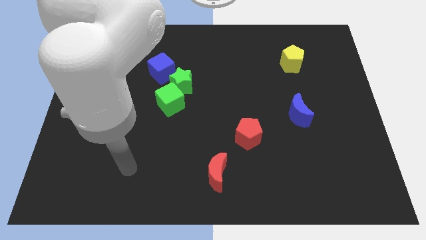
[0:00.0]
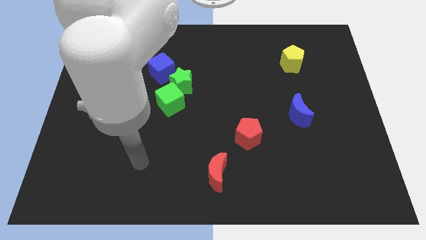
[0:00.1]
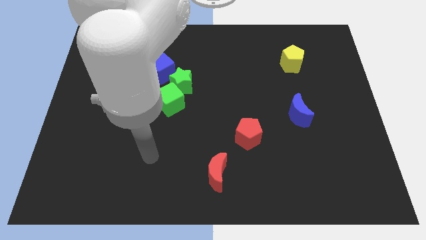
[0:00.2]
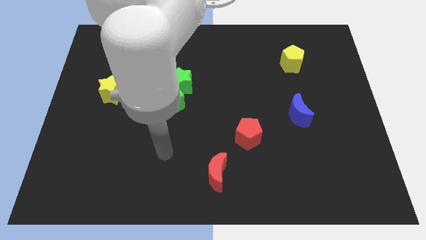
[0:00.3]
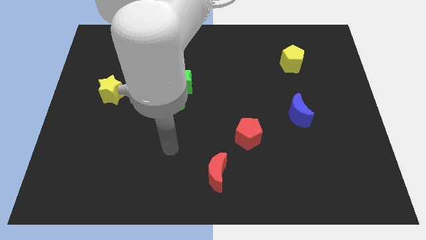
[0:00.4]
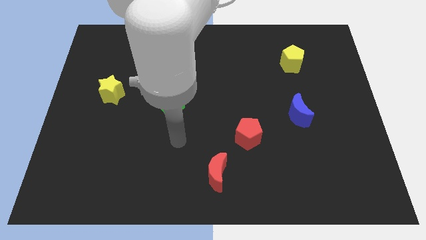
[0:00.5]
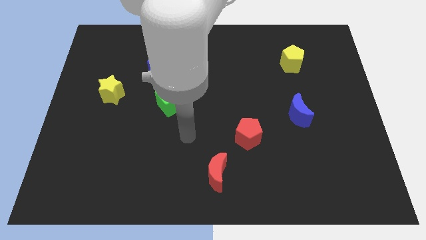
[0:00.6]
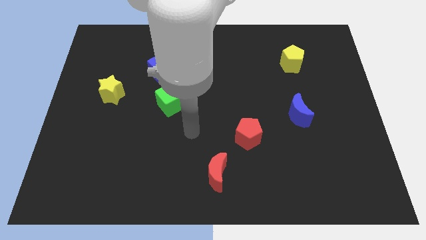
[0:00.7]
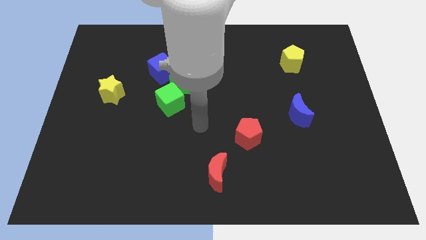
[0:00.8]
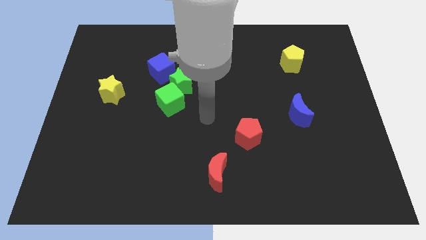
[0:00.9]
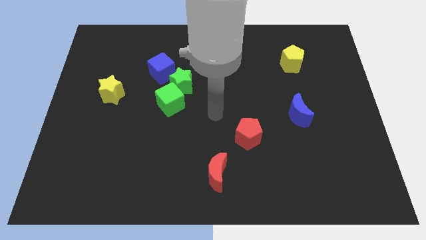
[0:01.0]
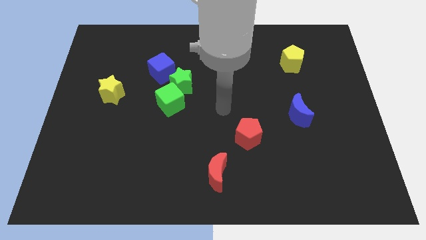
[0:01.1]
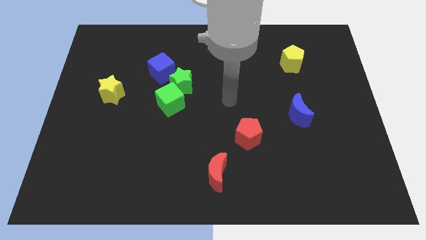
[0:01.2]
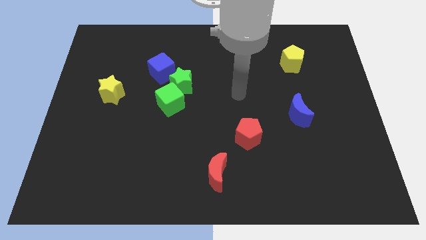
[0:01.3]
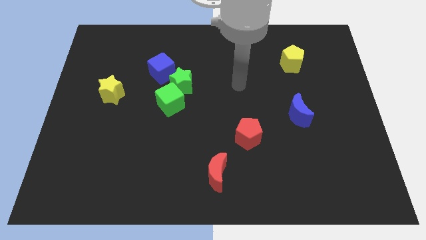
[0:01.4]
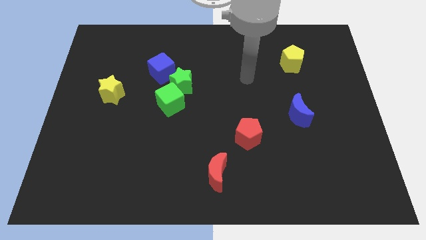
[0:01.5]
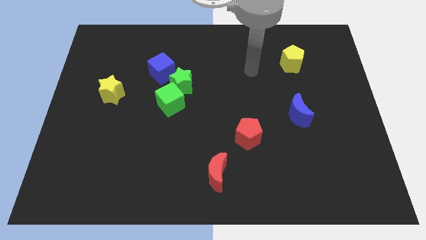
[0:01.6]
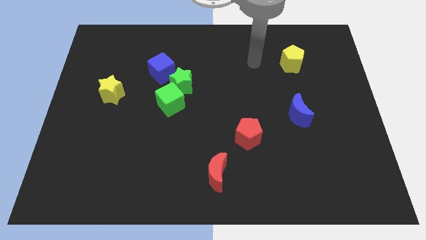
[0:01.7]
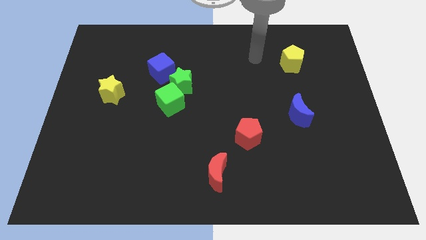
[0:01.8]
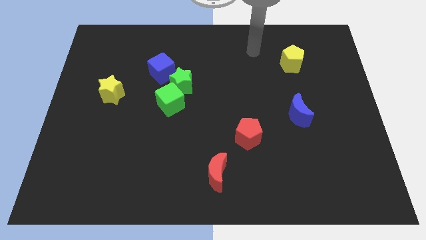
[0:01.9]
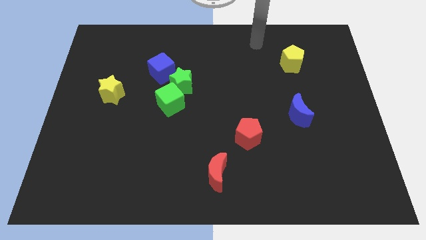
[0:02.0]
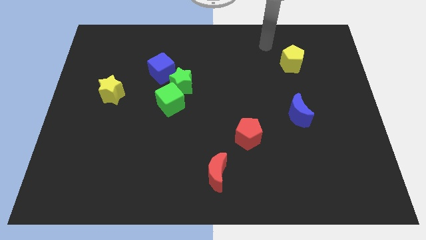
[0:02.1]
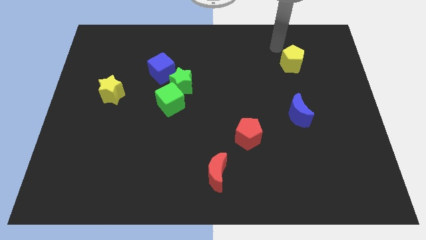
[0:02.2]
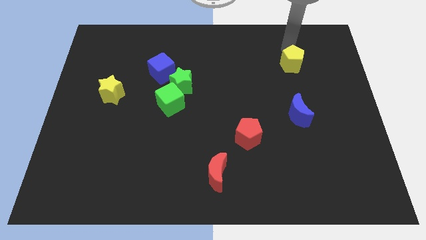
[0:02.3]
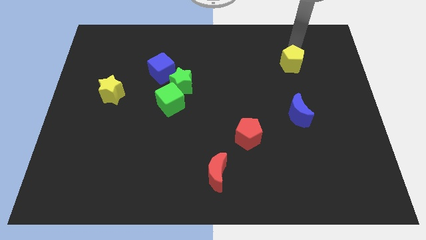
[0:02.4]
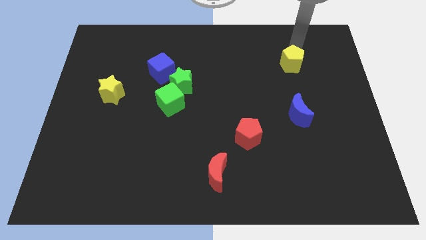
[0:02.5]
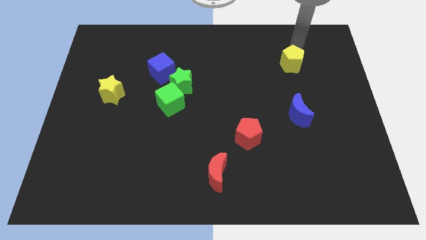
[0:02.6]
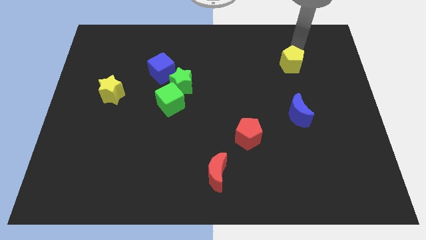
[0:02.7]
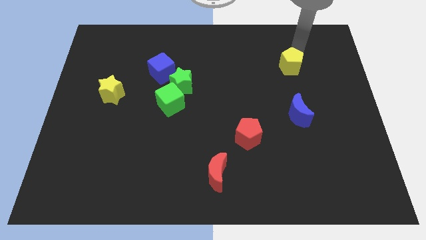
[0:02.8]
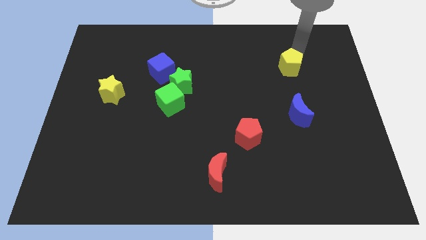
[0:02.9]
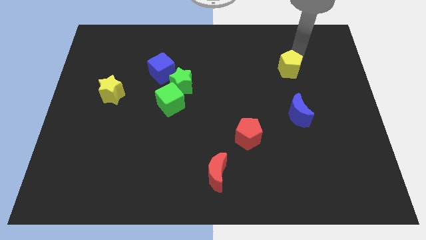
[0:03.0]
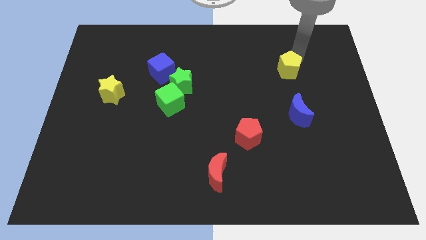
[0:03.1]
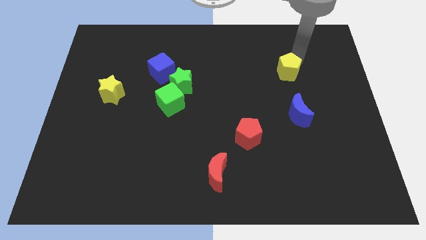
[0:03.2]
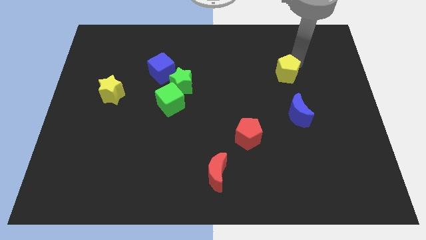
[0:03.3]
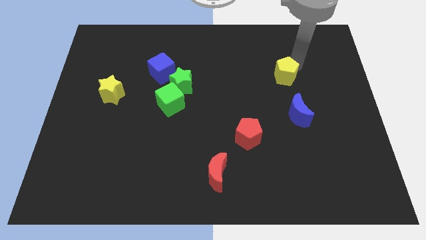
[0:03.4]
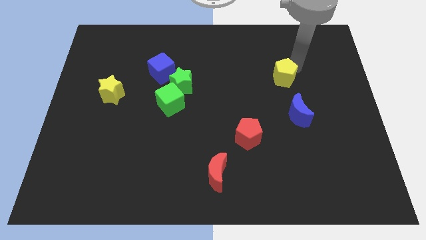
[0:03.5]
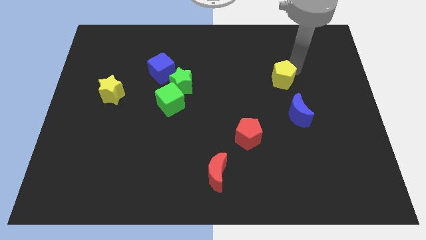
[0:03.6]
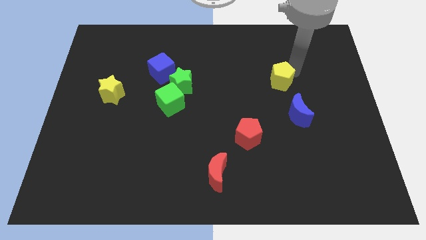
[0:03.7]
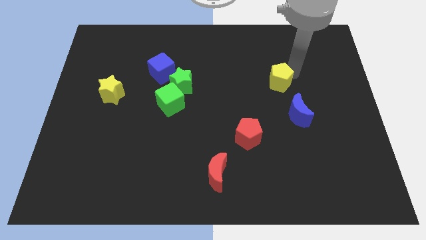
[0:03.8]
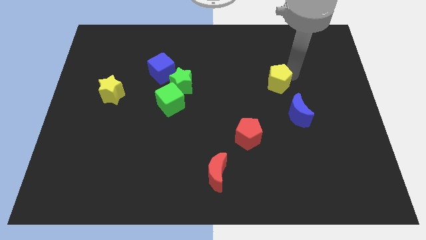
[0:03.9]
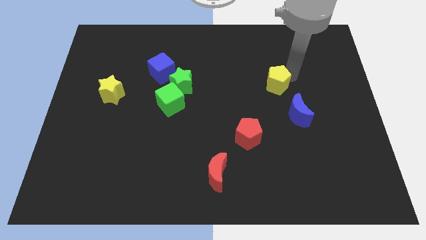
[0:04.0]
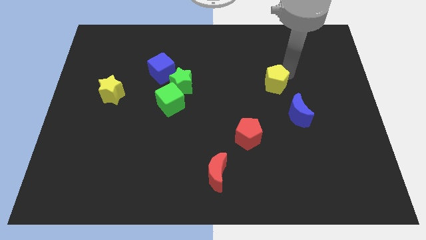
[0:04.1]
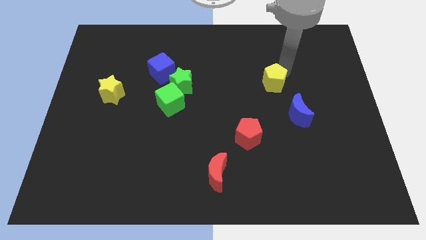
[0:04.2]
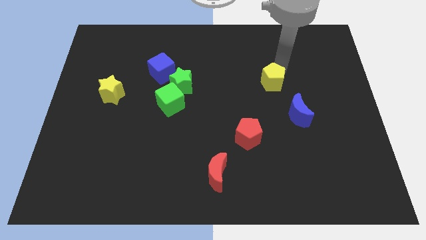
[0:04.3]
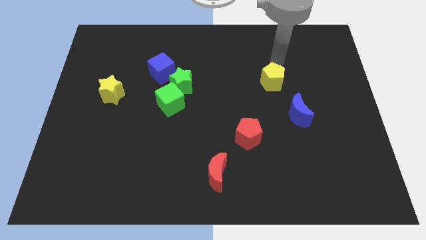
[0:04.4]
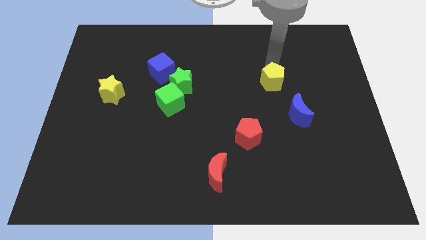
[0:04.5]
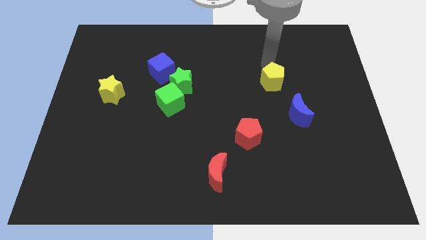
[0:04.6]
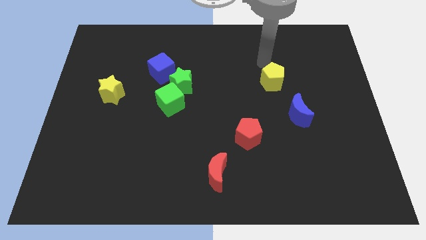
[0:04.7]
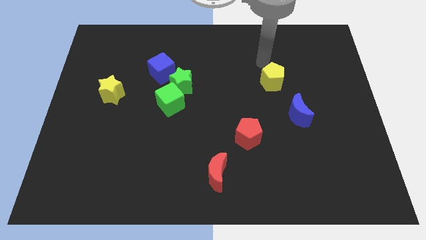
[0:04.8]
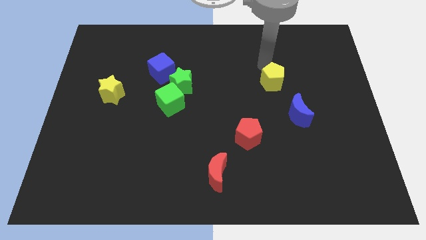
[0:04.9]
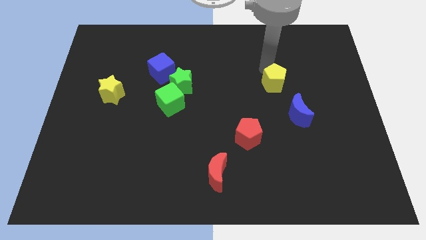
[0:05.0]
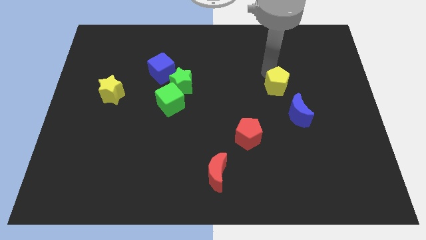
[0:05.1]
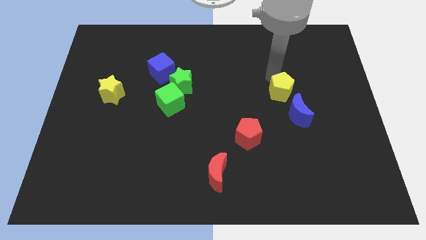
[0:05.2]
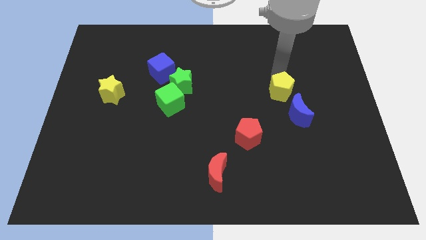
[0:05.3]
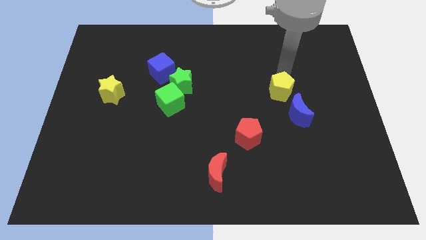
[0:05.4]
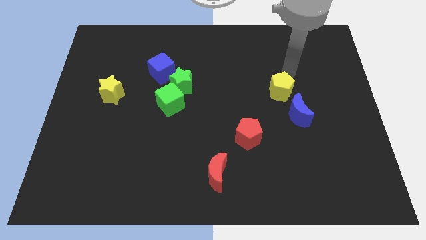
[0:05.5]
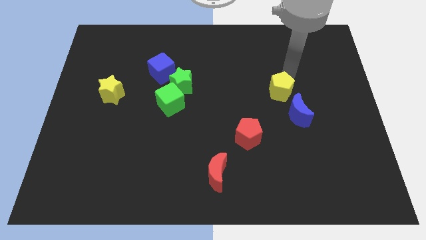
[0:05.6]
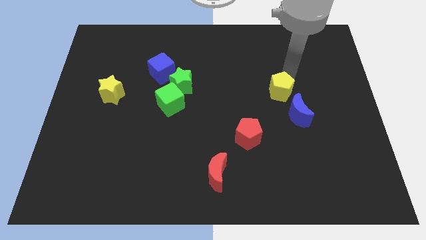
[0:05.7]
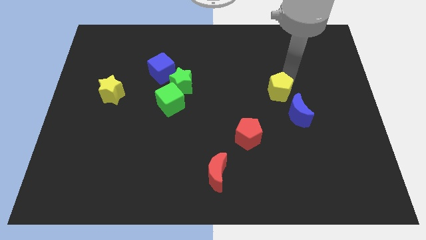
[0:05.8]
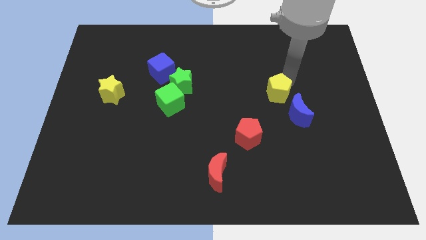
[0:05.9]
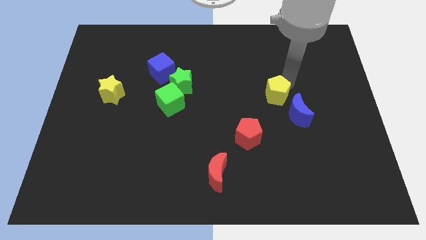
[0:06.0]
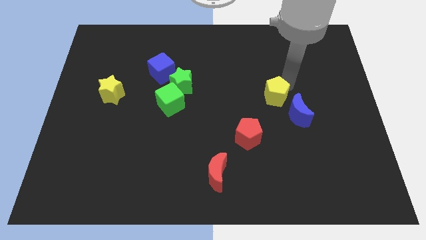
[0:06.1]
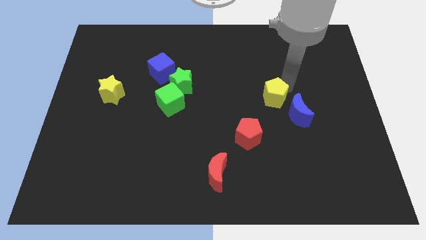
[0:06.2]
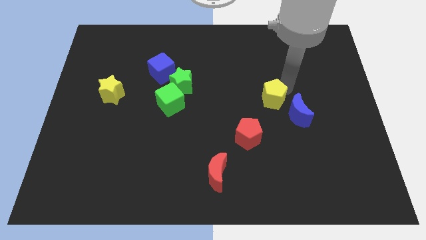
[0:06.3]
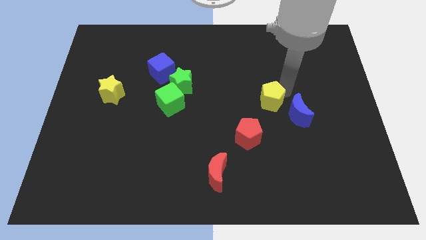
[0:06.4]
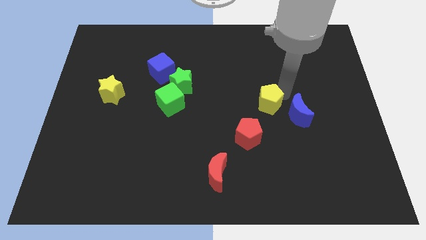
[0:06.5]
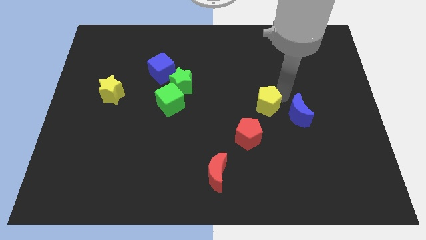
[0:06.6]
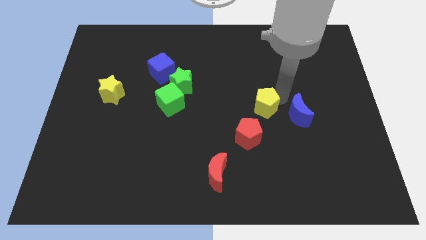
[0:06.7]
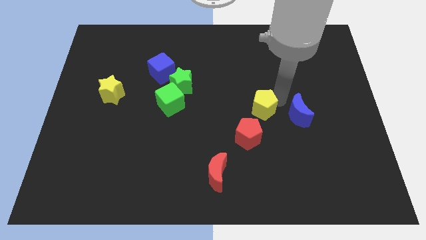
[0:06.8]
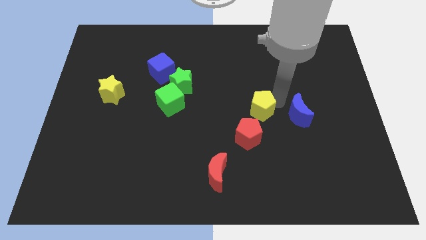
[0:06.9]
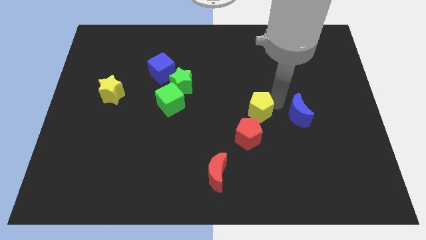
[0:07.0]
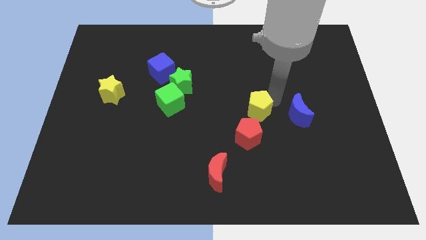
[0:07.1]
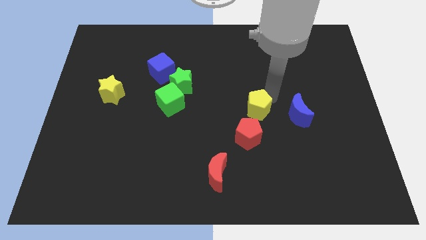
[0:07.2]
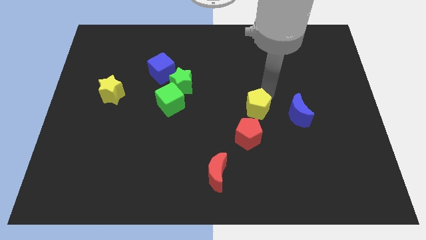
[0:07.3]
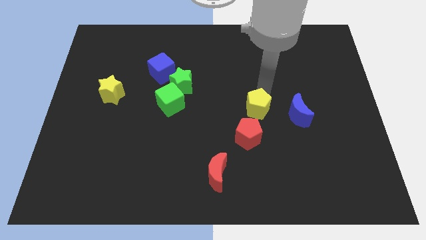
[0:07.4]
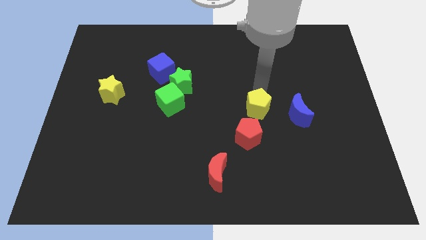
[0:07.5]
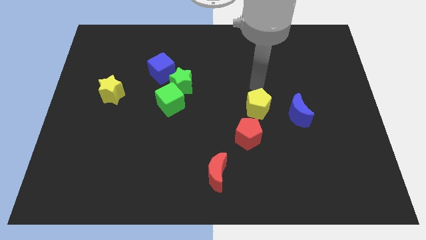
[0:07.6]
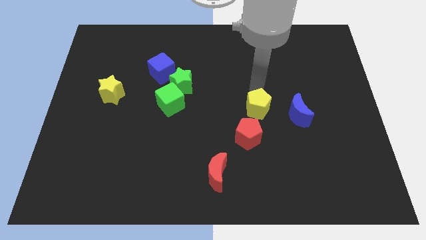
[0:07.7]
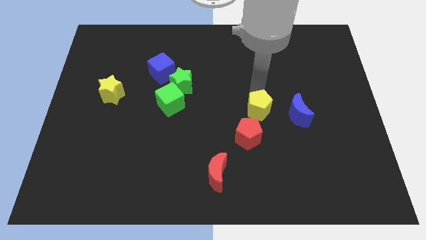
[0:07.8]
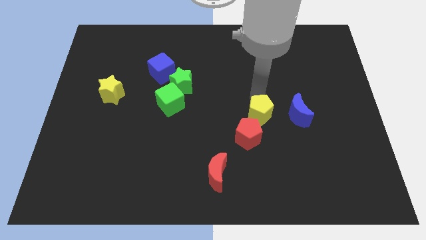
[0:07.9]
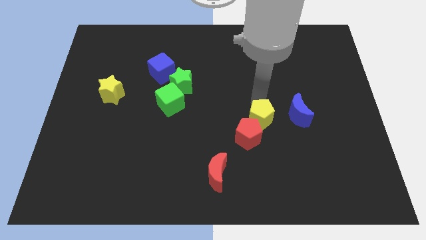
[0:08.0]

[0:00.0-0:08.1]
push the yellow pentagon close to the red pentagon
